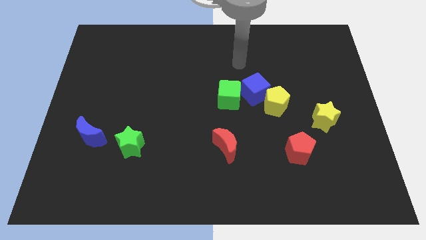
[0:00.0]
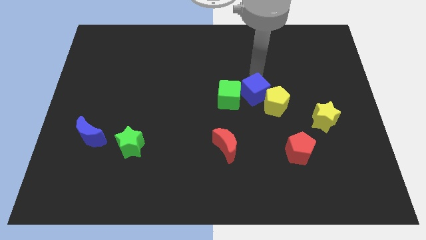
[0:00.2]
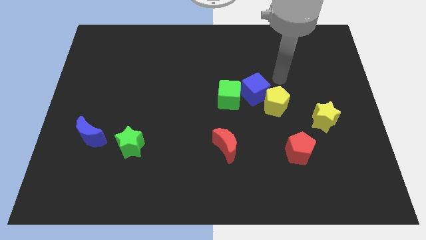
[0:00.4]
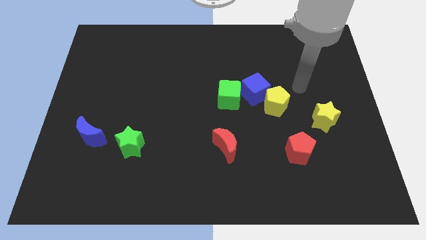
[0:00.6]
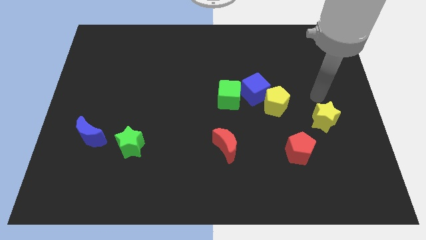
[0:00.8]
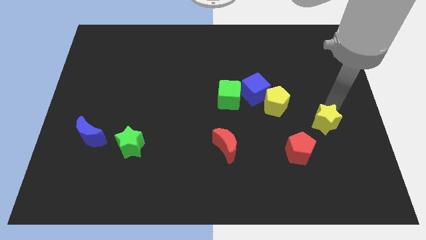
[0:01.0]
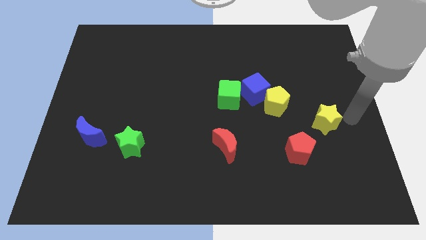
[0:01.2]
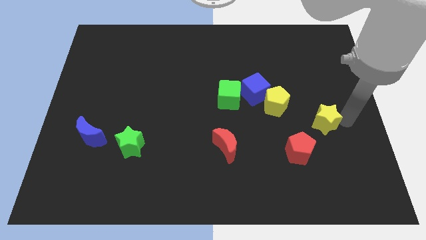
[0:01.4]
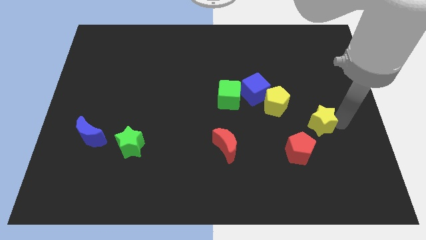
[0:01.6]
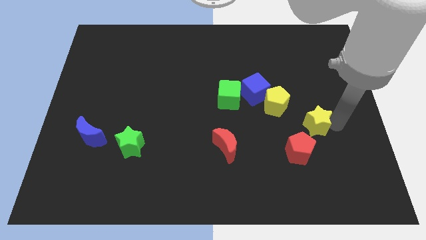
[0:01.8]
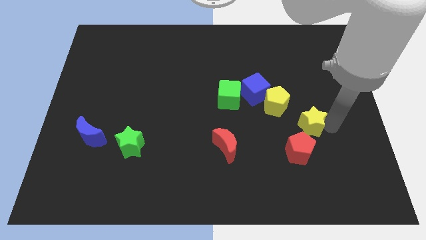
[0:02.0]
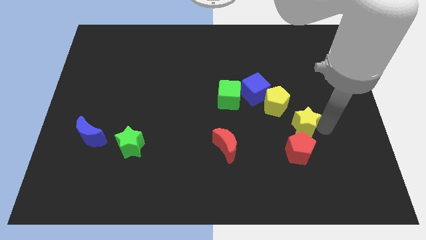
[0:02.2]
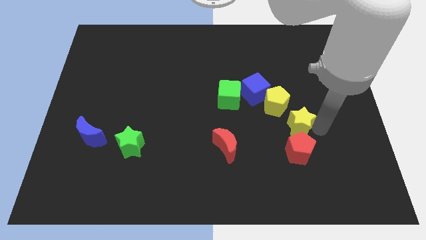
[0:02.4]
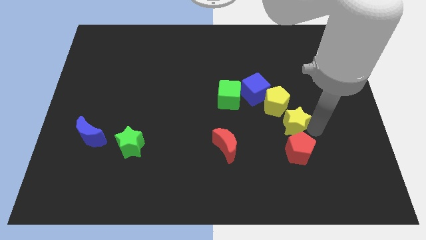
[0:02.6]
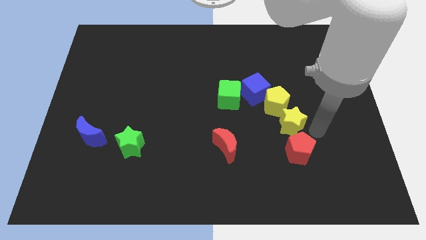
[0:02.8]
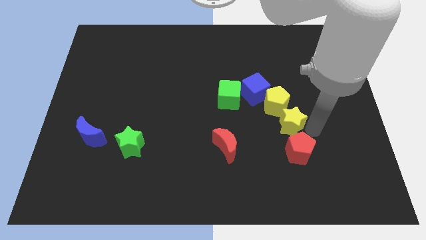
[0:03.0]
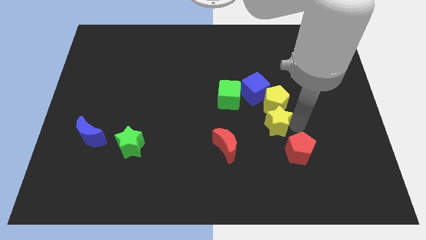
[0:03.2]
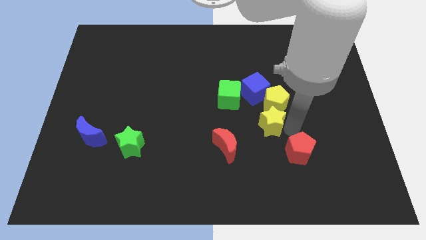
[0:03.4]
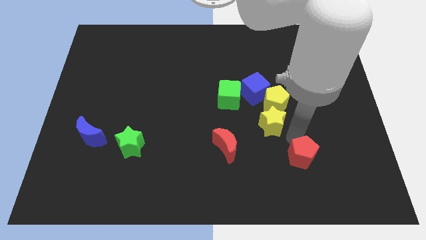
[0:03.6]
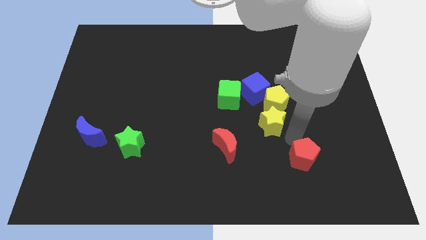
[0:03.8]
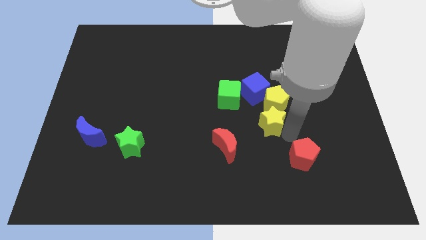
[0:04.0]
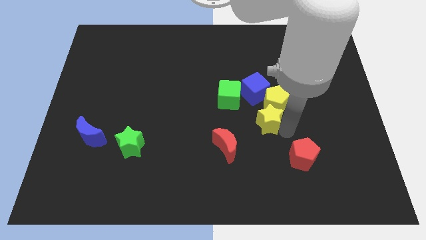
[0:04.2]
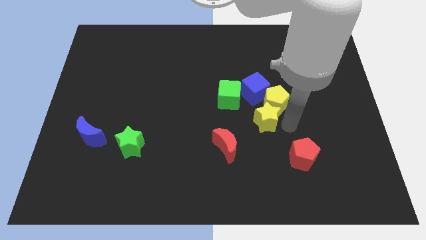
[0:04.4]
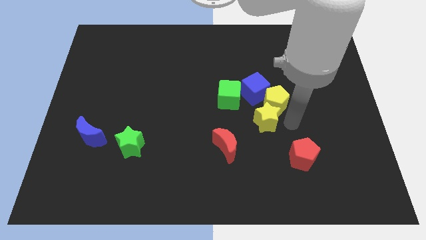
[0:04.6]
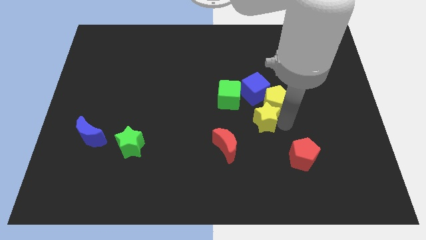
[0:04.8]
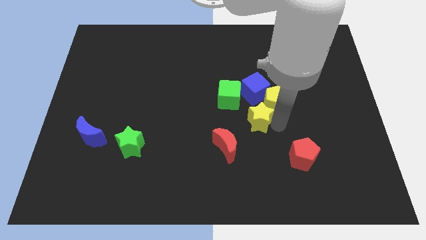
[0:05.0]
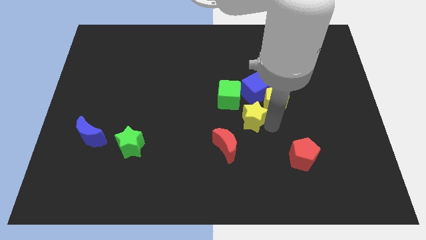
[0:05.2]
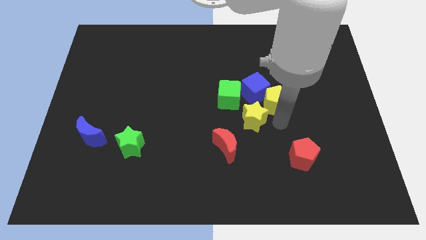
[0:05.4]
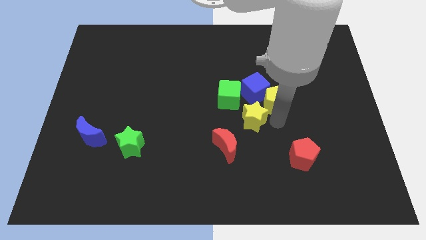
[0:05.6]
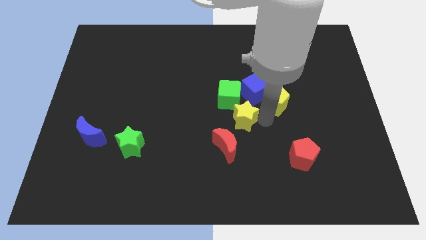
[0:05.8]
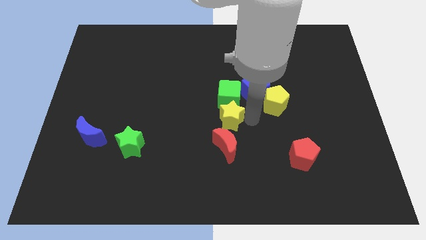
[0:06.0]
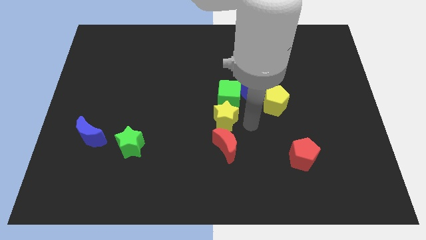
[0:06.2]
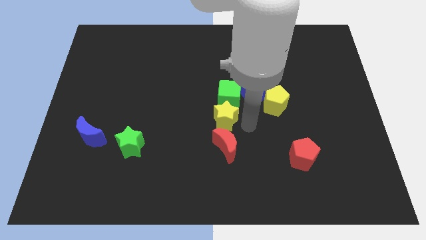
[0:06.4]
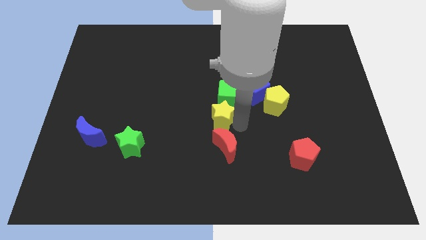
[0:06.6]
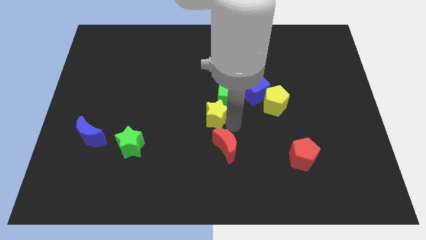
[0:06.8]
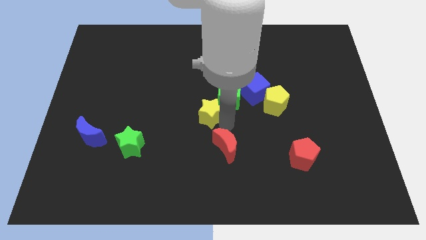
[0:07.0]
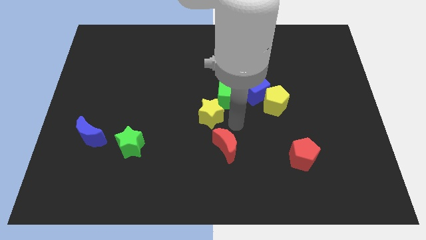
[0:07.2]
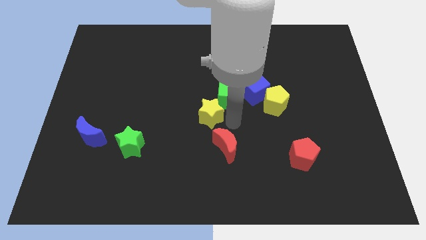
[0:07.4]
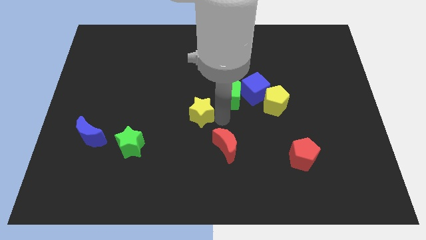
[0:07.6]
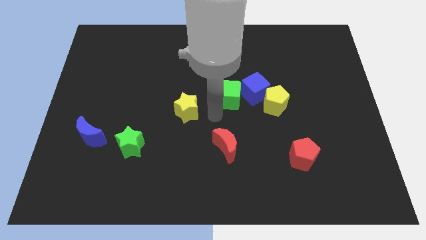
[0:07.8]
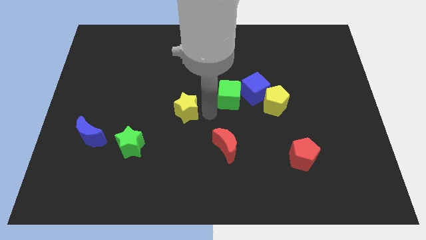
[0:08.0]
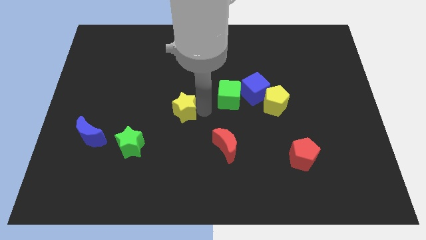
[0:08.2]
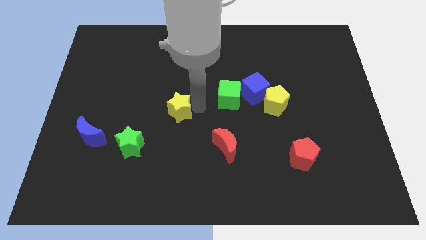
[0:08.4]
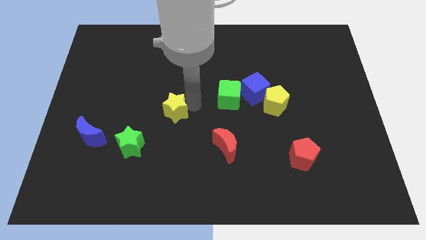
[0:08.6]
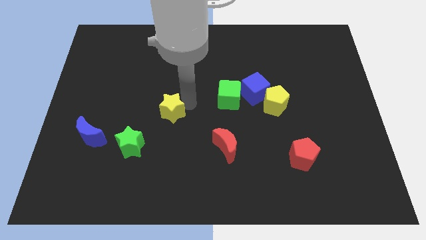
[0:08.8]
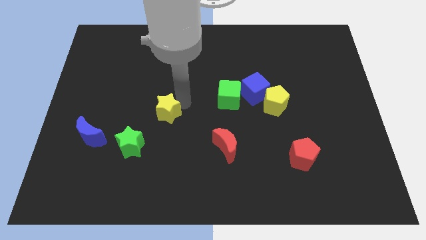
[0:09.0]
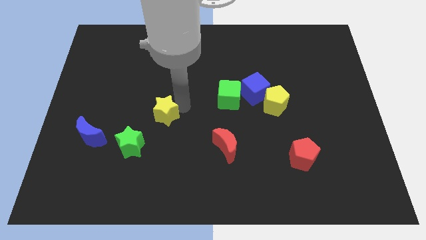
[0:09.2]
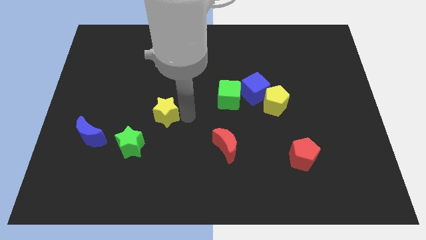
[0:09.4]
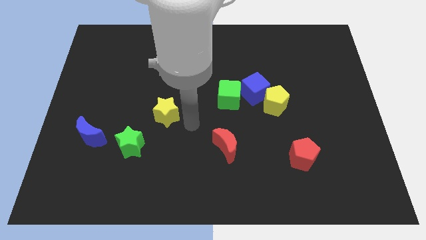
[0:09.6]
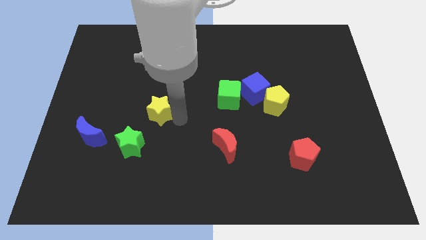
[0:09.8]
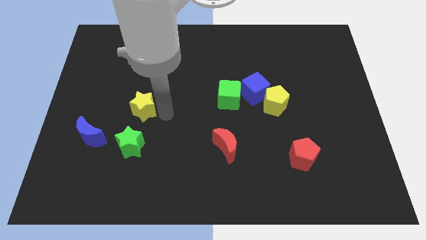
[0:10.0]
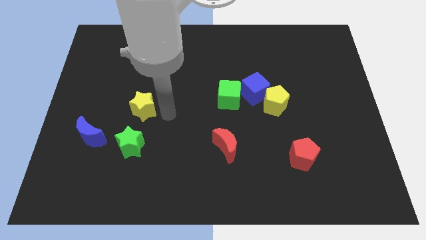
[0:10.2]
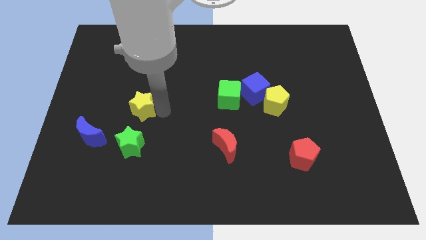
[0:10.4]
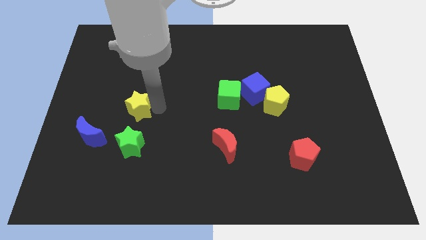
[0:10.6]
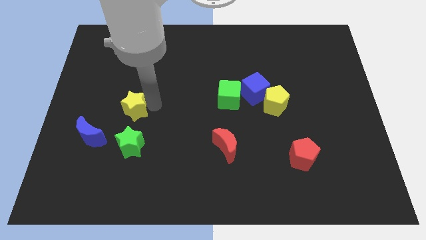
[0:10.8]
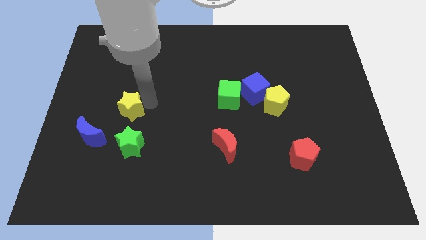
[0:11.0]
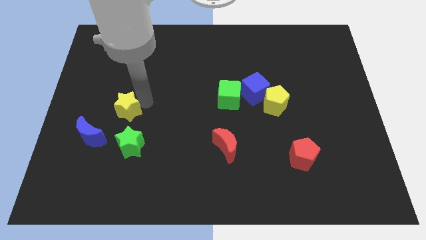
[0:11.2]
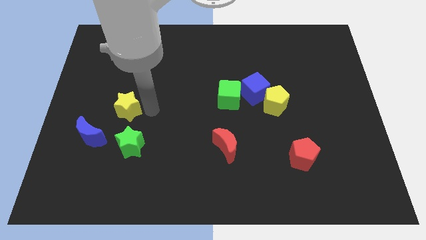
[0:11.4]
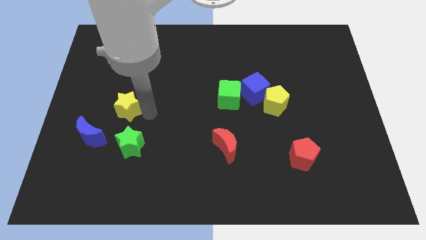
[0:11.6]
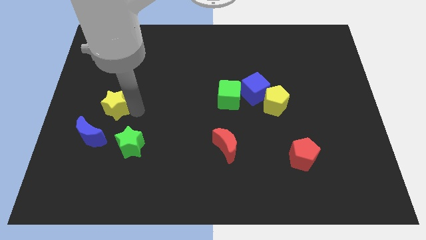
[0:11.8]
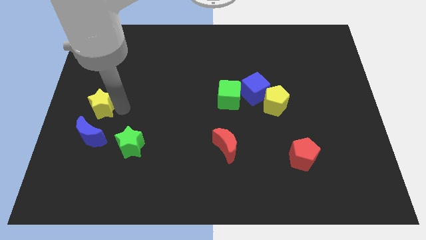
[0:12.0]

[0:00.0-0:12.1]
slide the yellow star to the center left
